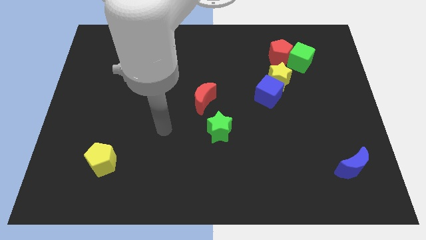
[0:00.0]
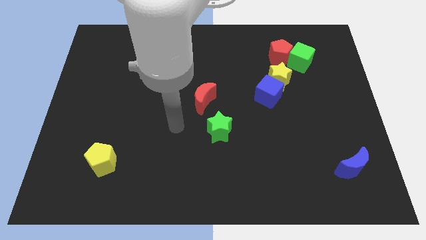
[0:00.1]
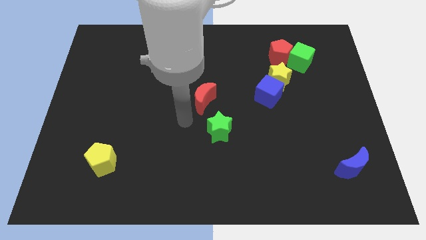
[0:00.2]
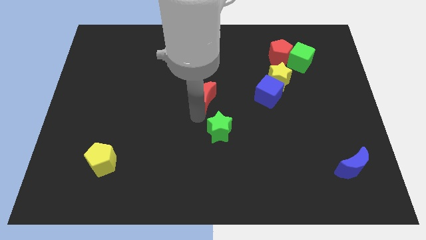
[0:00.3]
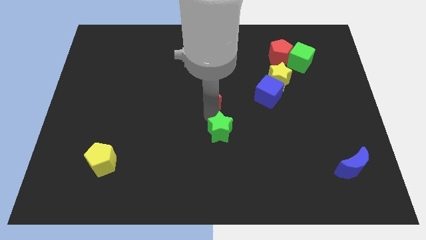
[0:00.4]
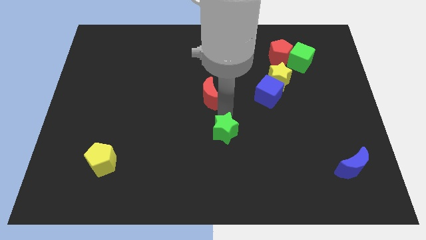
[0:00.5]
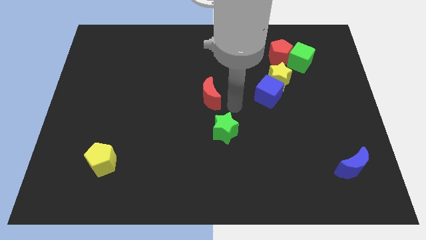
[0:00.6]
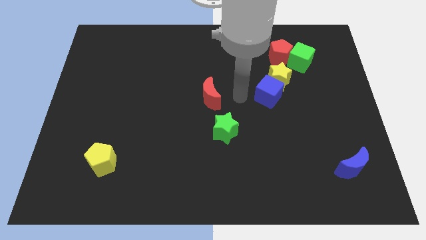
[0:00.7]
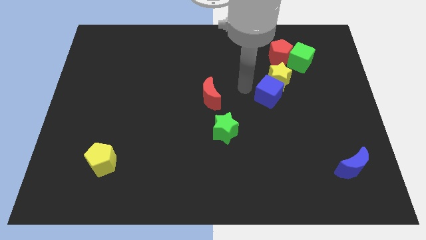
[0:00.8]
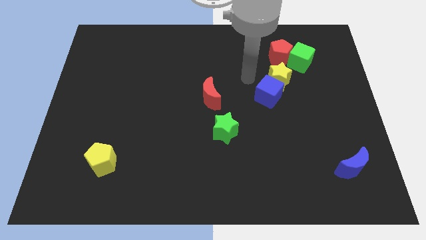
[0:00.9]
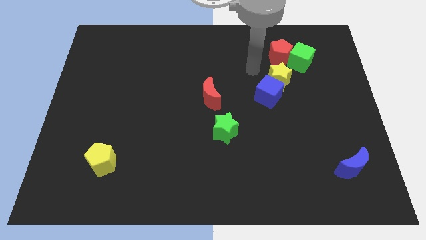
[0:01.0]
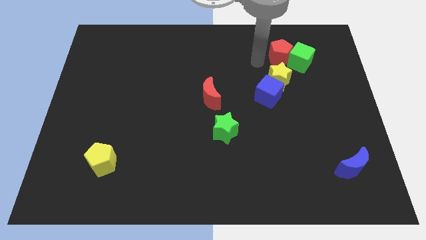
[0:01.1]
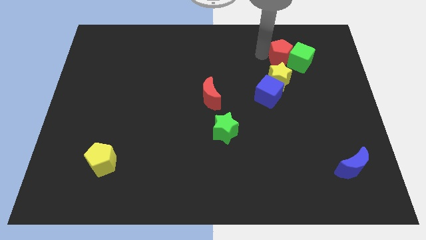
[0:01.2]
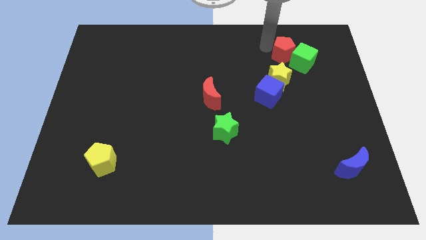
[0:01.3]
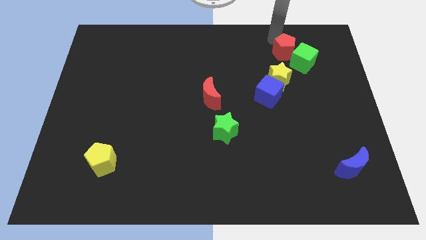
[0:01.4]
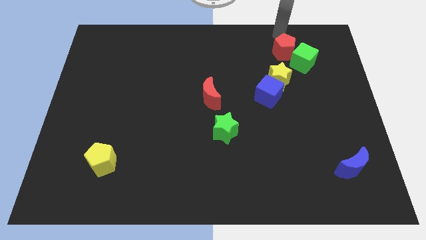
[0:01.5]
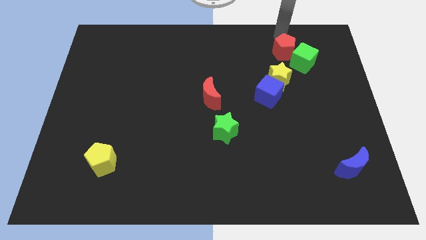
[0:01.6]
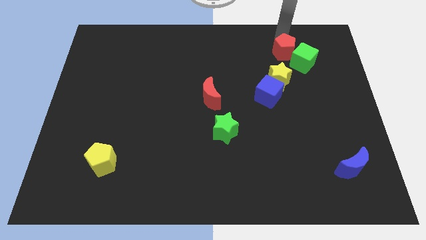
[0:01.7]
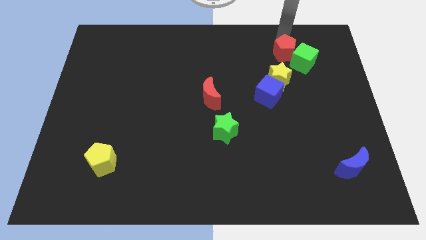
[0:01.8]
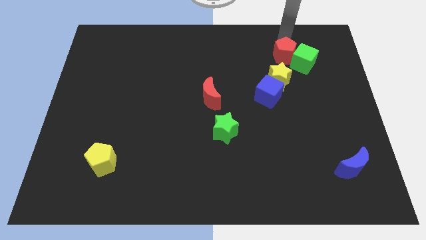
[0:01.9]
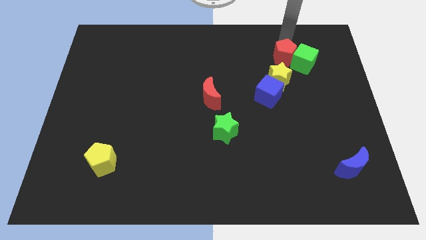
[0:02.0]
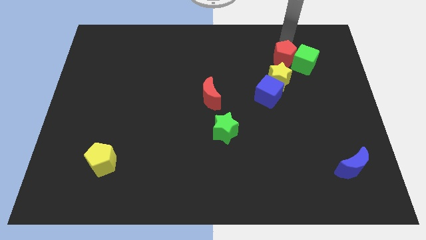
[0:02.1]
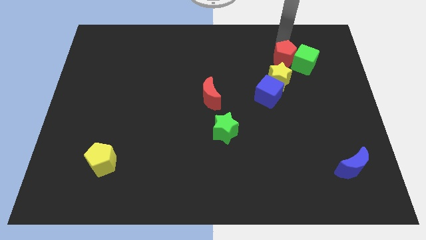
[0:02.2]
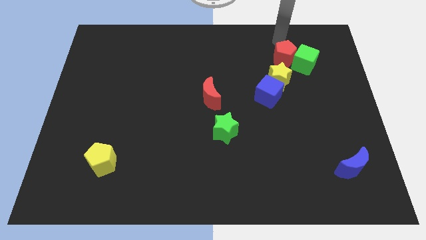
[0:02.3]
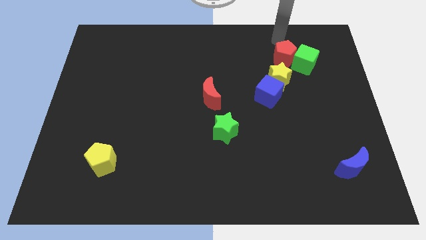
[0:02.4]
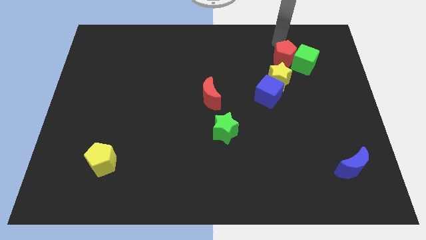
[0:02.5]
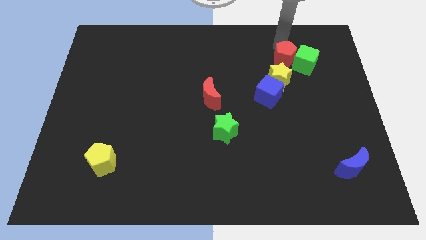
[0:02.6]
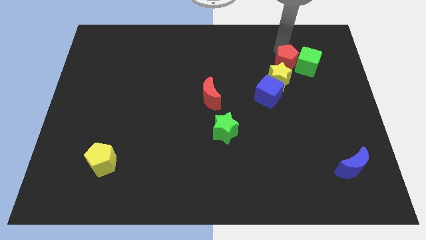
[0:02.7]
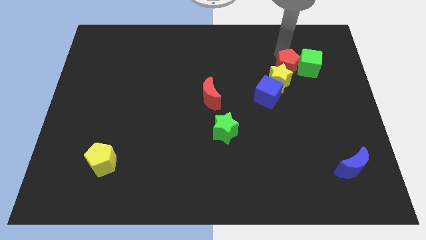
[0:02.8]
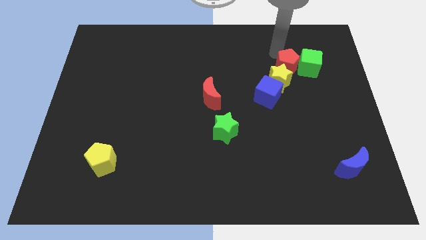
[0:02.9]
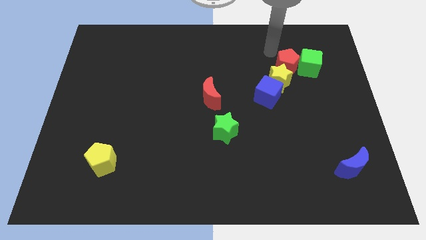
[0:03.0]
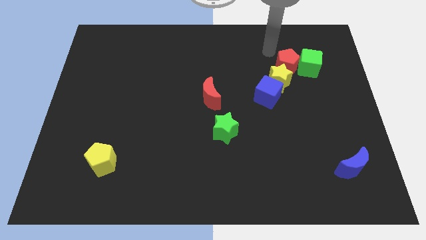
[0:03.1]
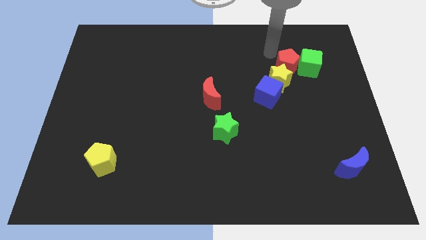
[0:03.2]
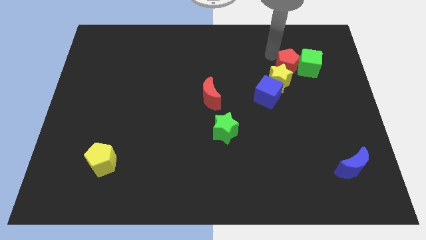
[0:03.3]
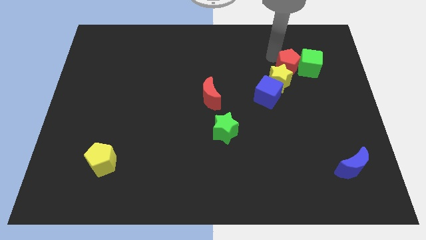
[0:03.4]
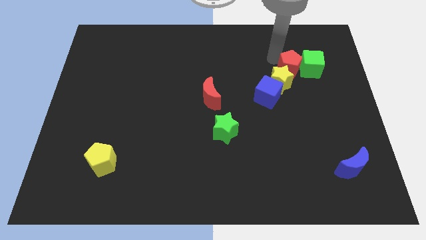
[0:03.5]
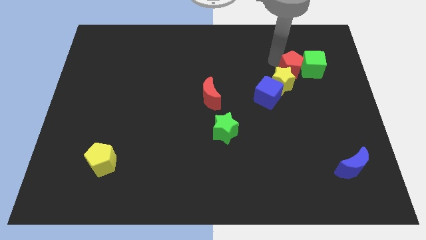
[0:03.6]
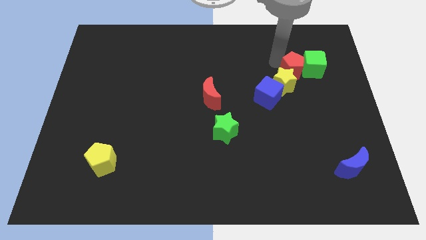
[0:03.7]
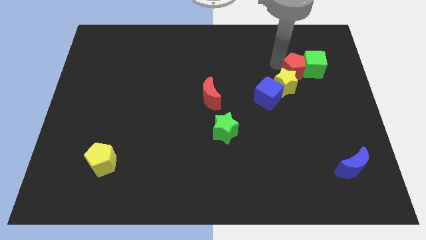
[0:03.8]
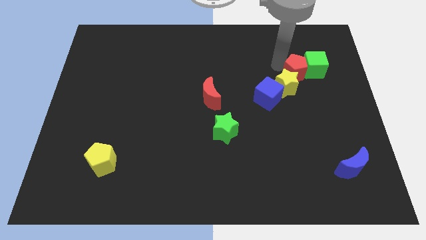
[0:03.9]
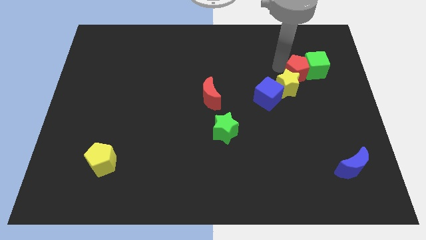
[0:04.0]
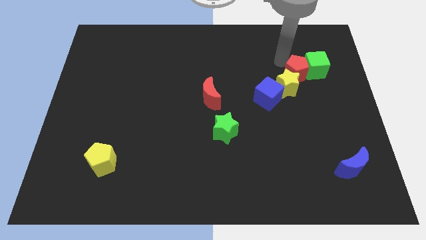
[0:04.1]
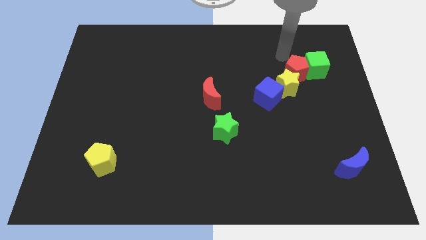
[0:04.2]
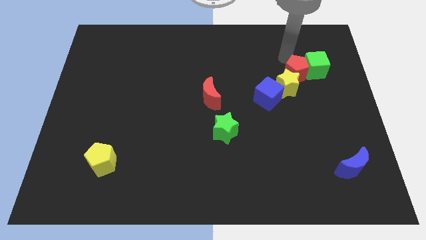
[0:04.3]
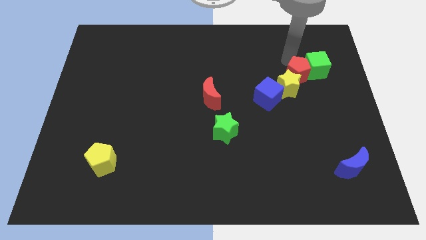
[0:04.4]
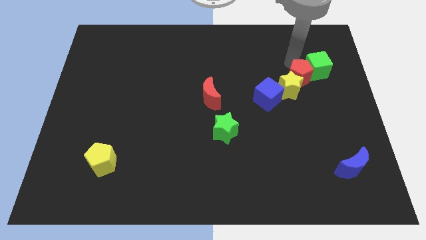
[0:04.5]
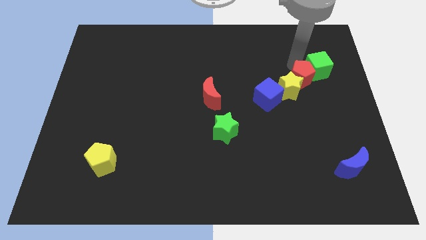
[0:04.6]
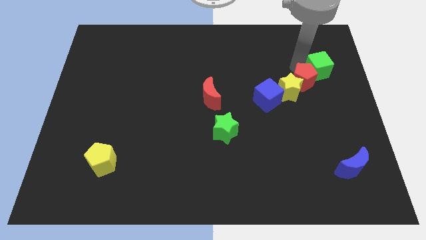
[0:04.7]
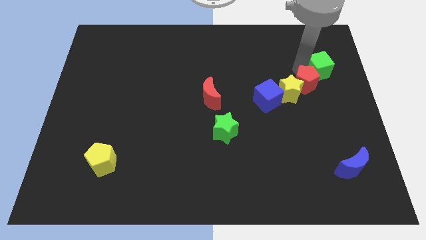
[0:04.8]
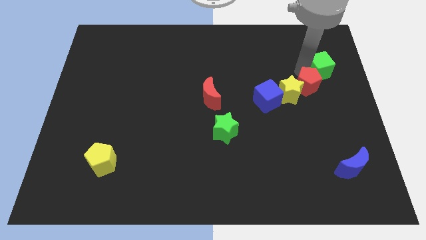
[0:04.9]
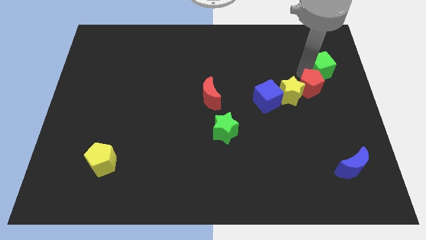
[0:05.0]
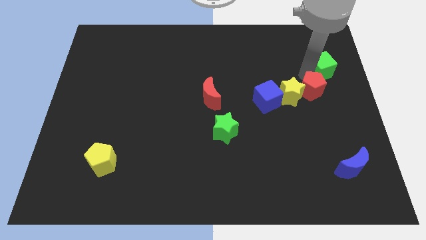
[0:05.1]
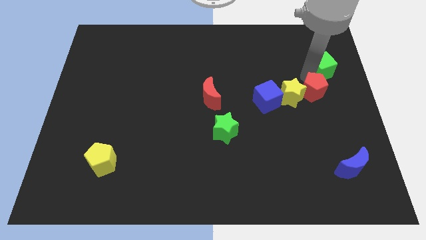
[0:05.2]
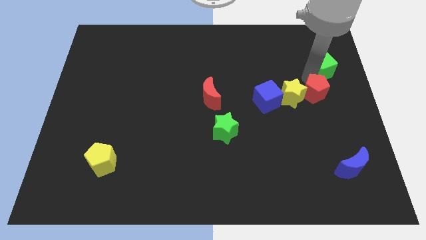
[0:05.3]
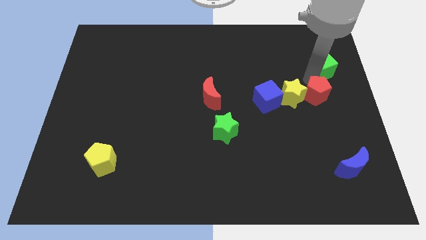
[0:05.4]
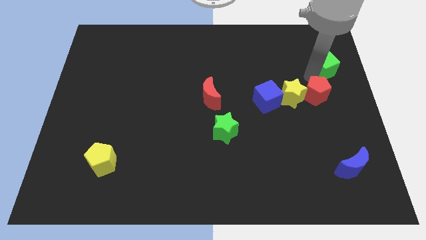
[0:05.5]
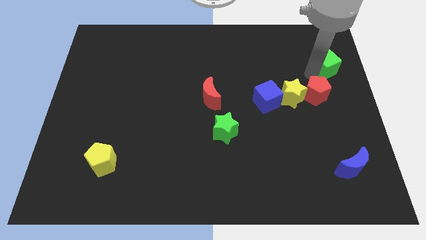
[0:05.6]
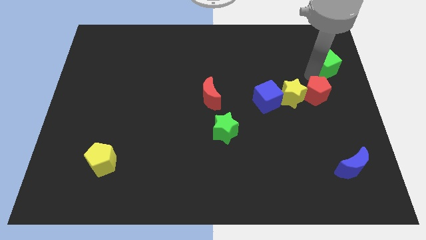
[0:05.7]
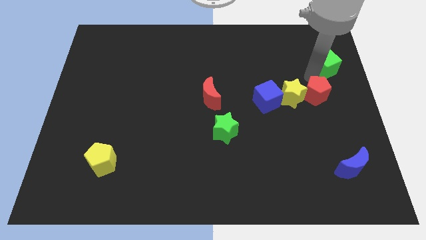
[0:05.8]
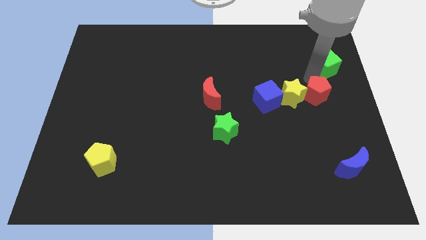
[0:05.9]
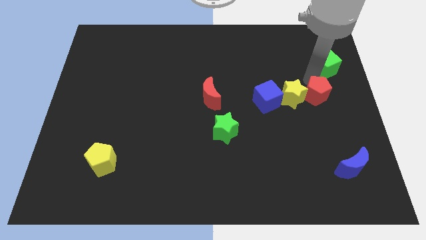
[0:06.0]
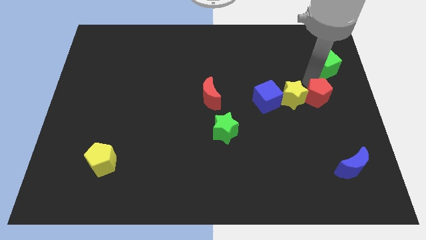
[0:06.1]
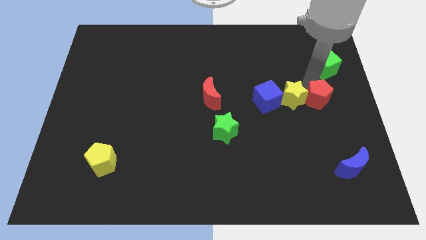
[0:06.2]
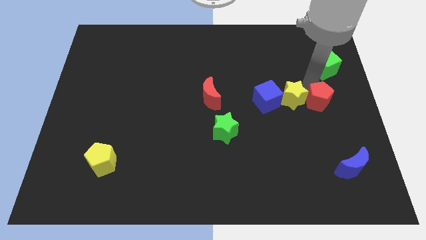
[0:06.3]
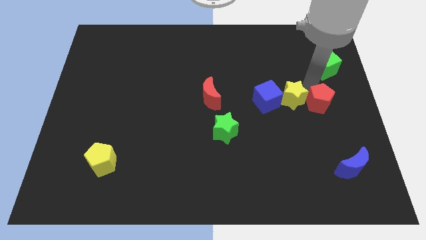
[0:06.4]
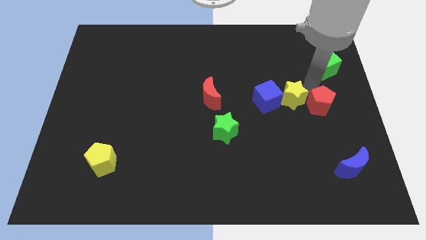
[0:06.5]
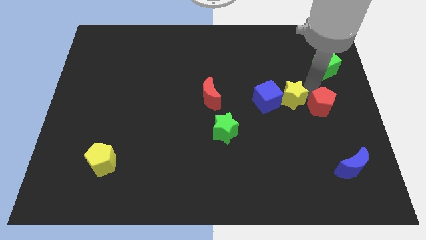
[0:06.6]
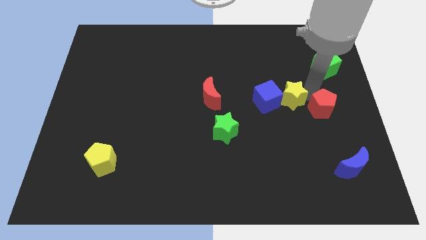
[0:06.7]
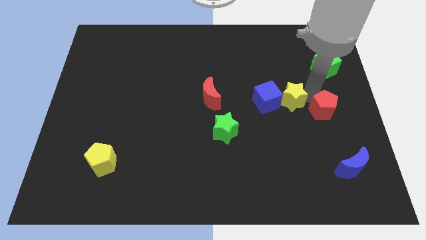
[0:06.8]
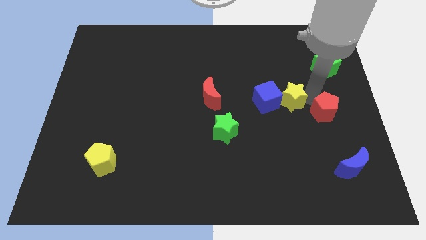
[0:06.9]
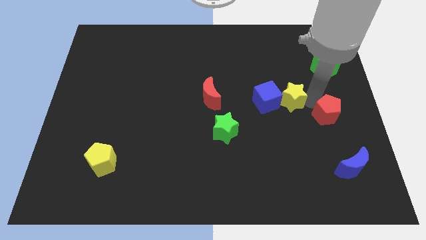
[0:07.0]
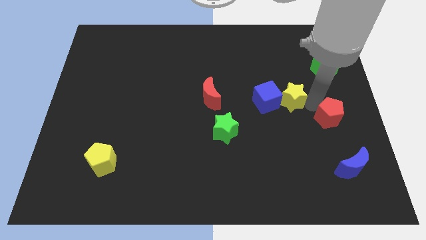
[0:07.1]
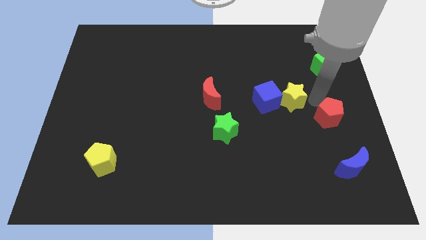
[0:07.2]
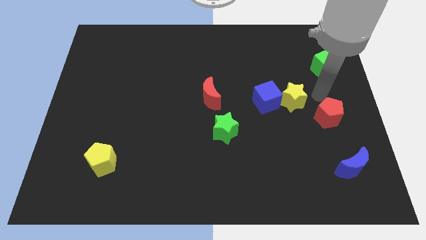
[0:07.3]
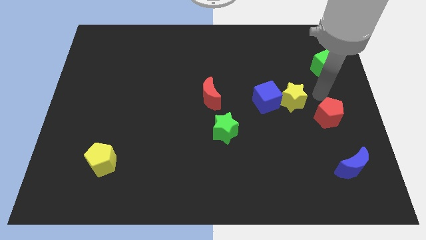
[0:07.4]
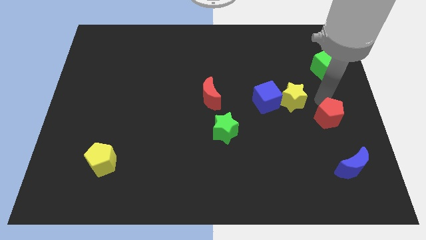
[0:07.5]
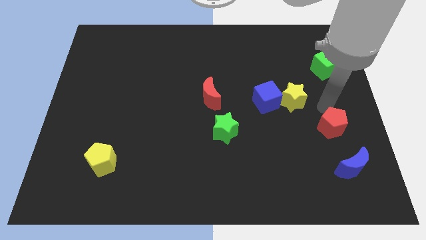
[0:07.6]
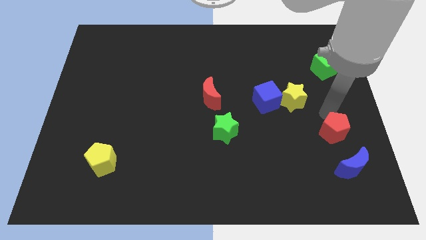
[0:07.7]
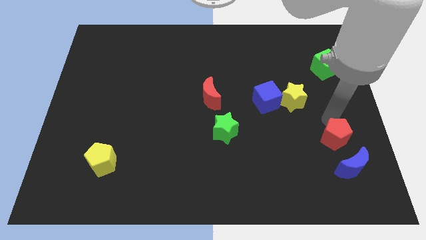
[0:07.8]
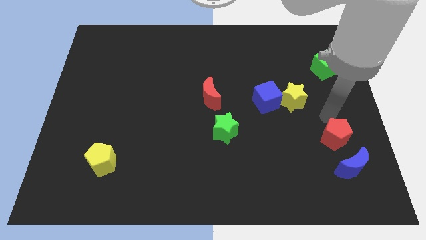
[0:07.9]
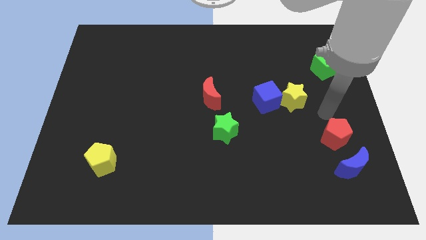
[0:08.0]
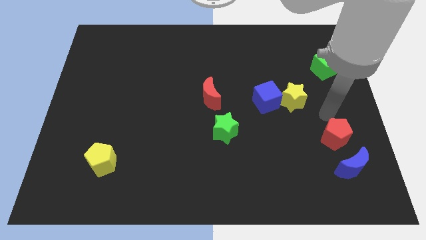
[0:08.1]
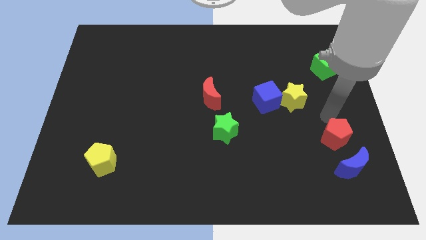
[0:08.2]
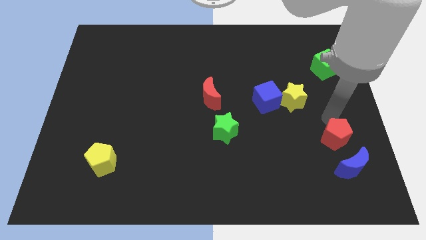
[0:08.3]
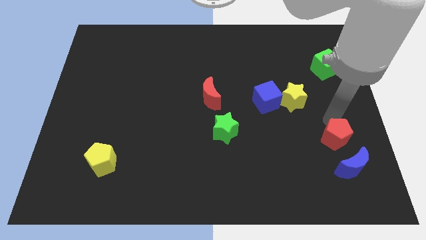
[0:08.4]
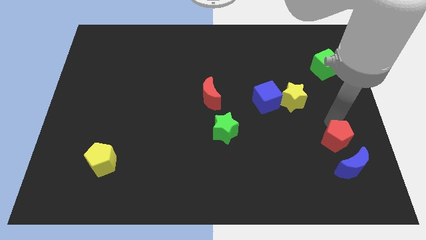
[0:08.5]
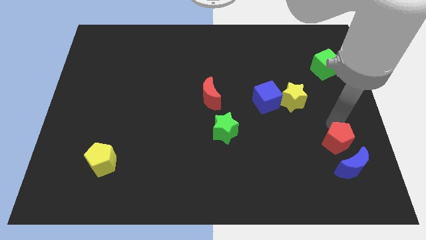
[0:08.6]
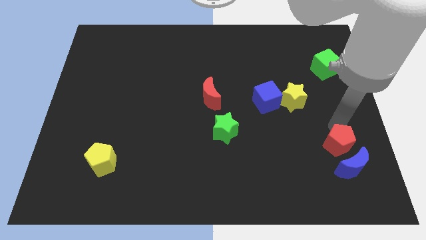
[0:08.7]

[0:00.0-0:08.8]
slide the red pentagon next to the blue moon
